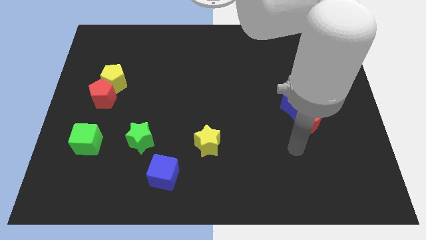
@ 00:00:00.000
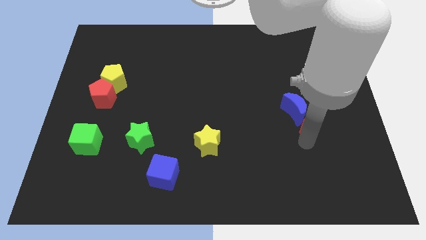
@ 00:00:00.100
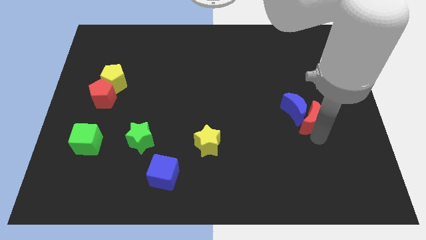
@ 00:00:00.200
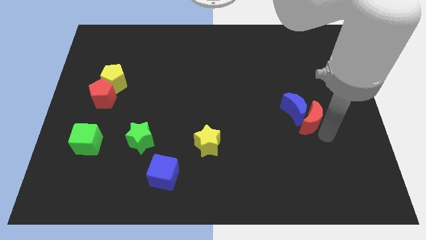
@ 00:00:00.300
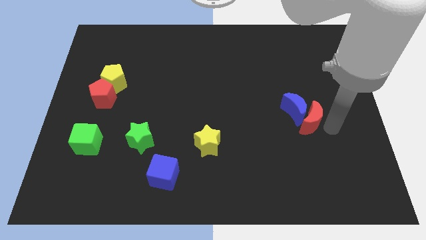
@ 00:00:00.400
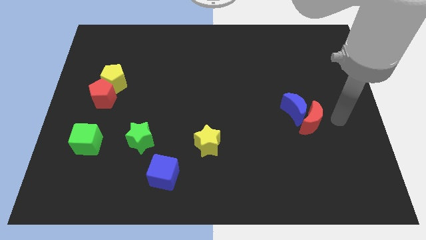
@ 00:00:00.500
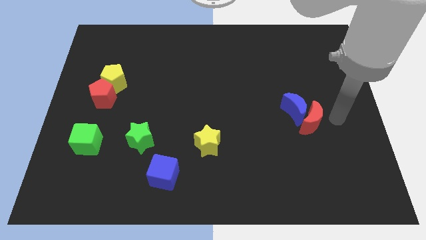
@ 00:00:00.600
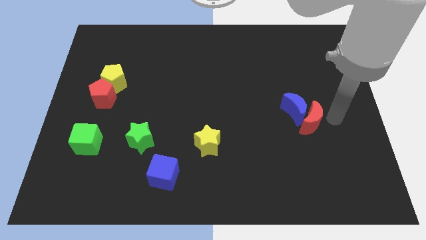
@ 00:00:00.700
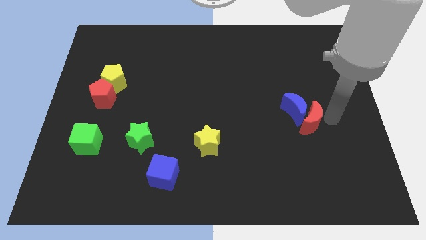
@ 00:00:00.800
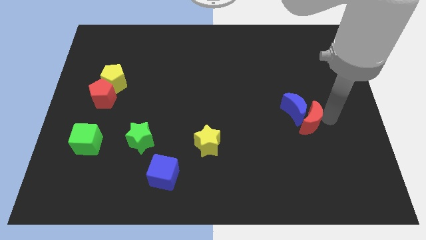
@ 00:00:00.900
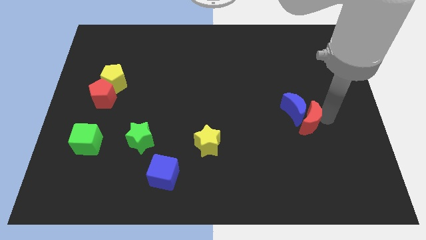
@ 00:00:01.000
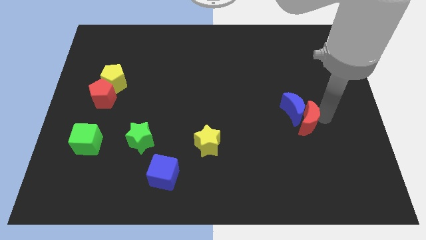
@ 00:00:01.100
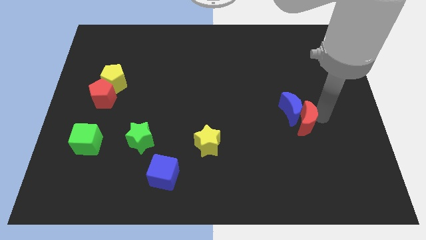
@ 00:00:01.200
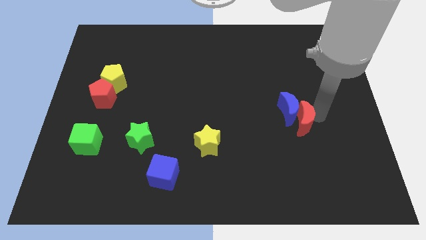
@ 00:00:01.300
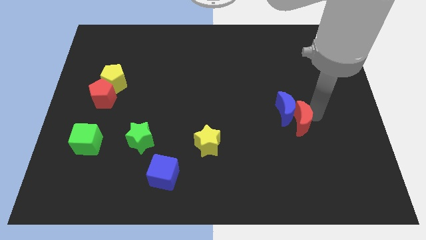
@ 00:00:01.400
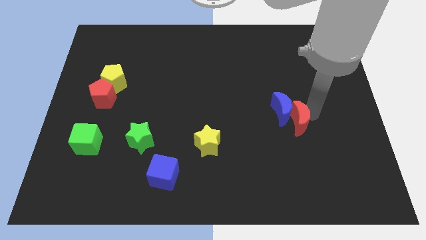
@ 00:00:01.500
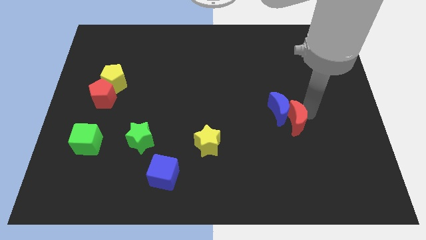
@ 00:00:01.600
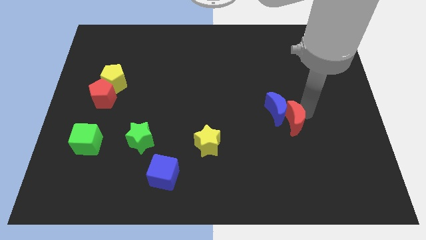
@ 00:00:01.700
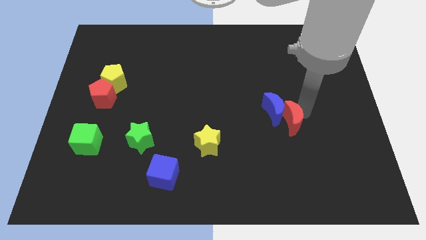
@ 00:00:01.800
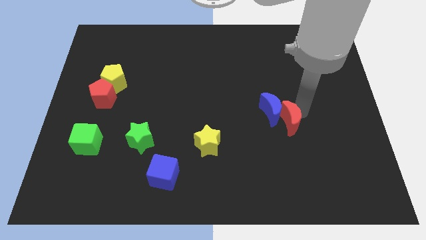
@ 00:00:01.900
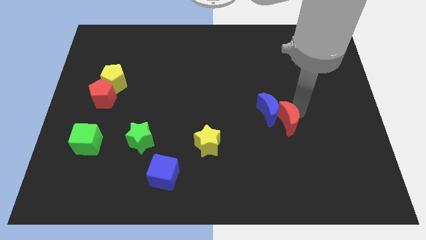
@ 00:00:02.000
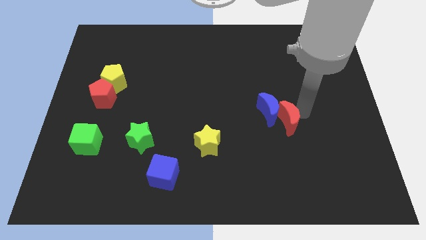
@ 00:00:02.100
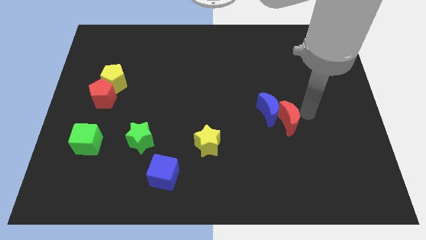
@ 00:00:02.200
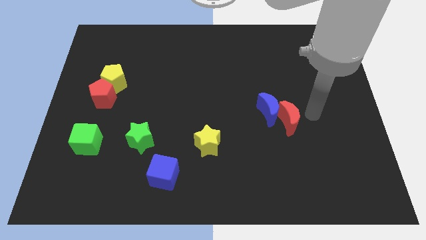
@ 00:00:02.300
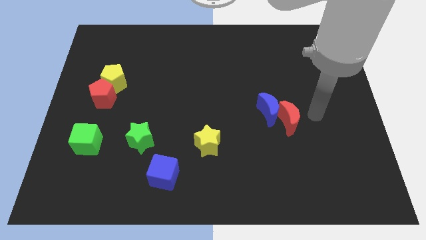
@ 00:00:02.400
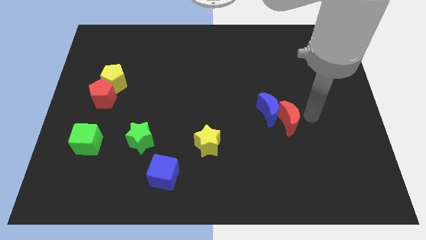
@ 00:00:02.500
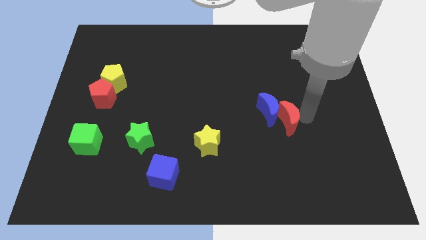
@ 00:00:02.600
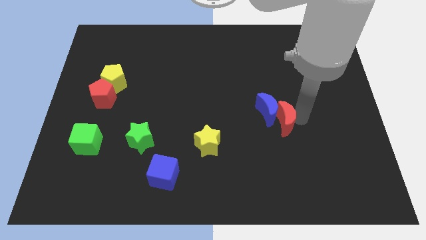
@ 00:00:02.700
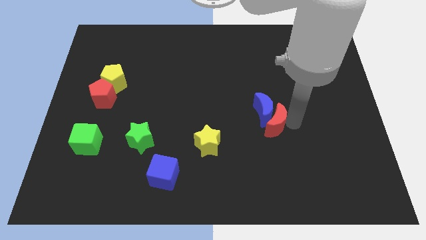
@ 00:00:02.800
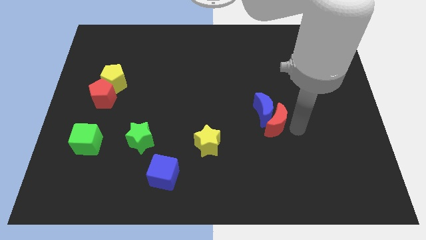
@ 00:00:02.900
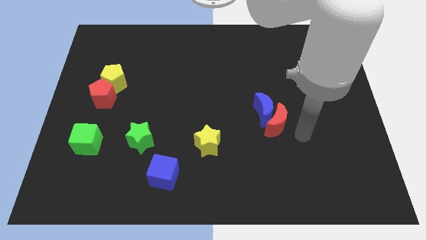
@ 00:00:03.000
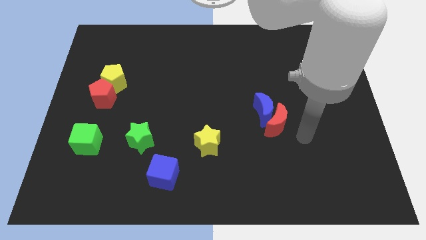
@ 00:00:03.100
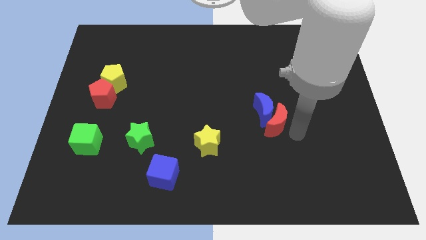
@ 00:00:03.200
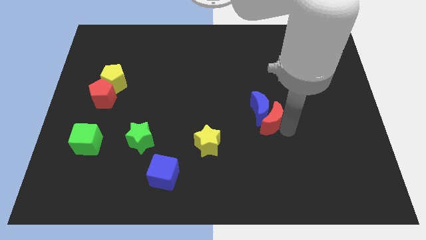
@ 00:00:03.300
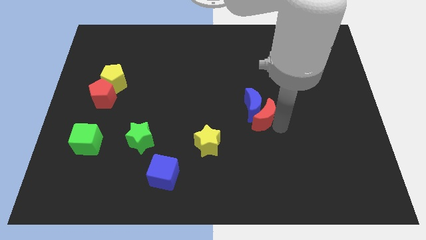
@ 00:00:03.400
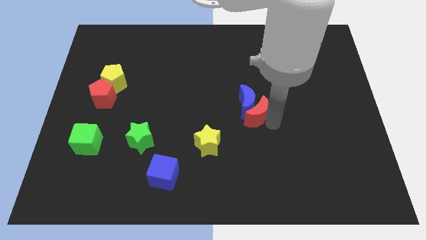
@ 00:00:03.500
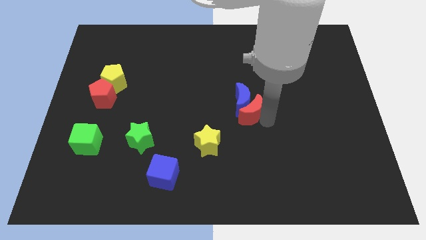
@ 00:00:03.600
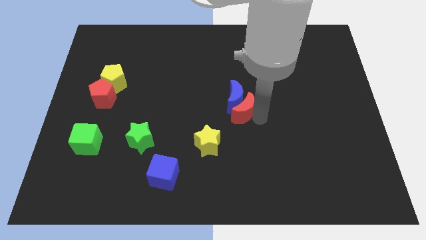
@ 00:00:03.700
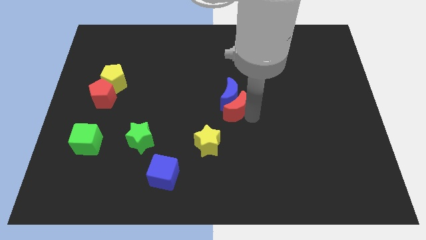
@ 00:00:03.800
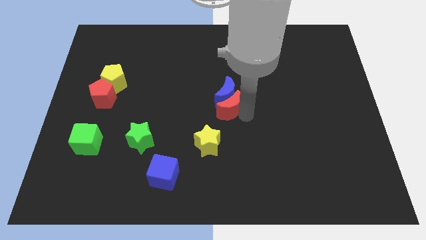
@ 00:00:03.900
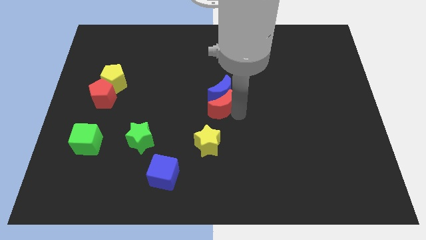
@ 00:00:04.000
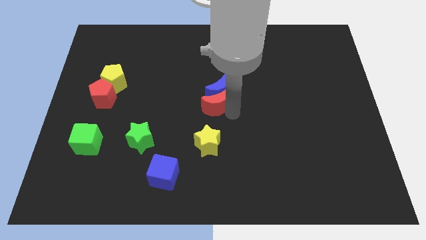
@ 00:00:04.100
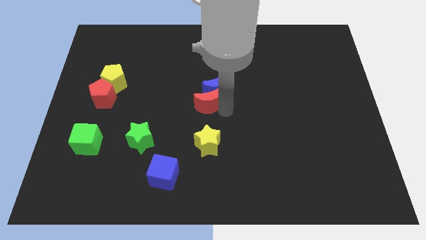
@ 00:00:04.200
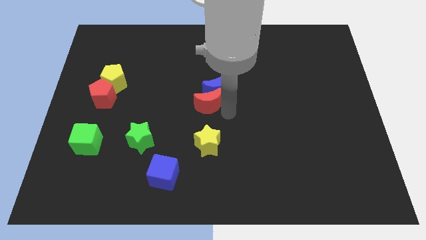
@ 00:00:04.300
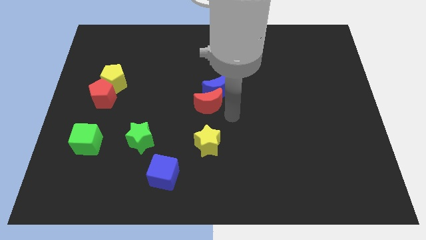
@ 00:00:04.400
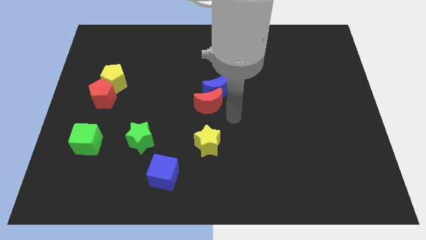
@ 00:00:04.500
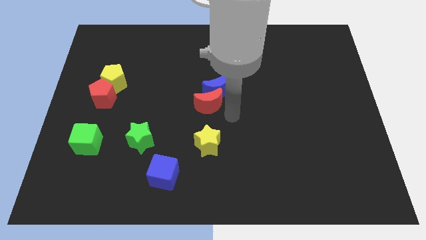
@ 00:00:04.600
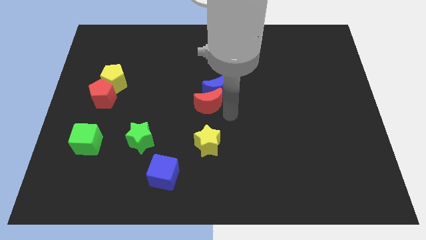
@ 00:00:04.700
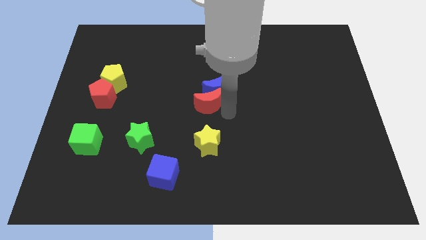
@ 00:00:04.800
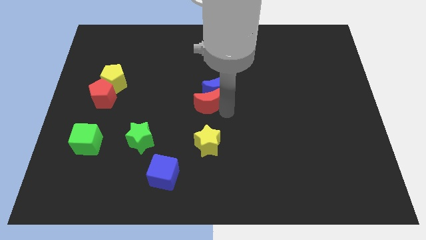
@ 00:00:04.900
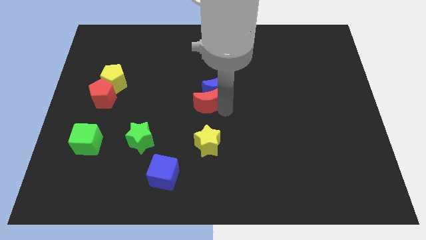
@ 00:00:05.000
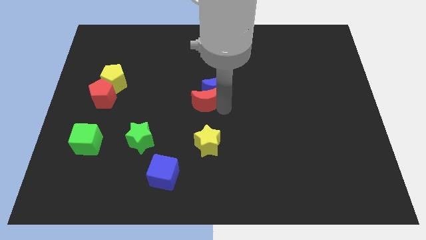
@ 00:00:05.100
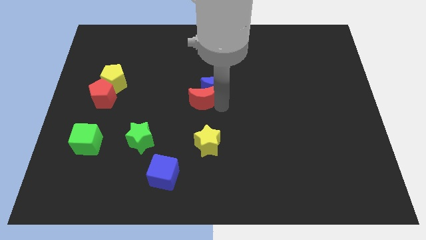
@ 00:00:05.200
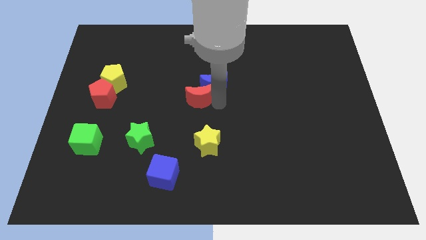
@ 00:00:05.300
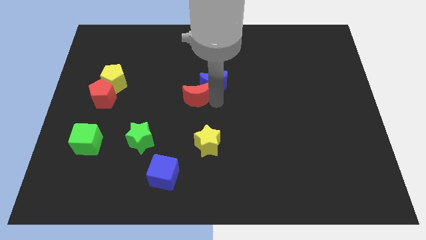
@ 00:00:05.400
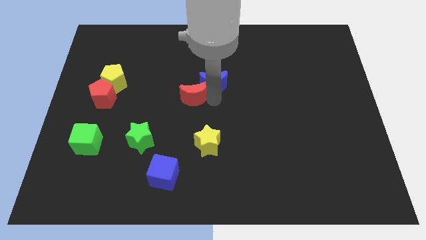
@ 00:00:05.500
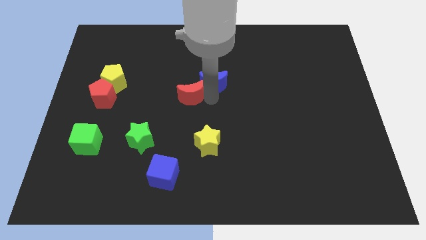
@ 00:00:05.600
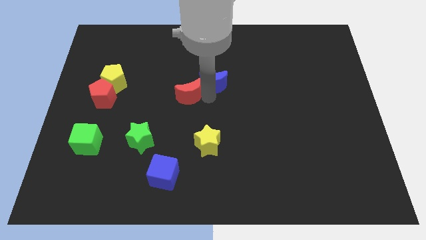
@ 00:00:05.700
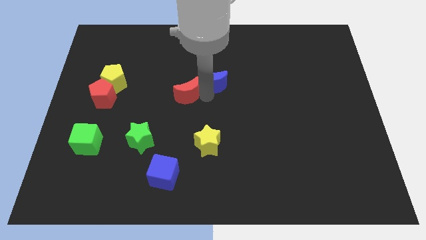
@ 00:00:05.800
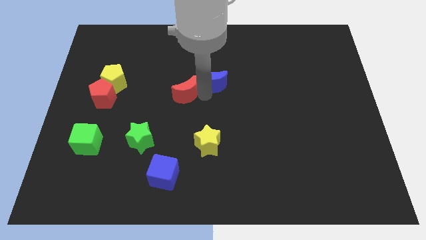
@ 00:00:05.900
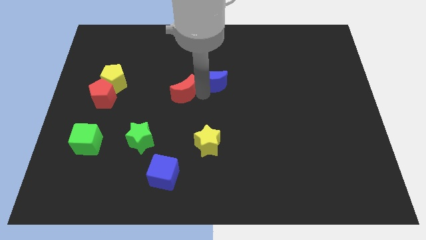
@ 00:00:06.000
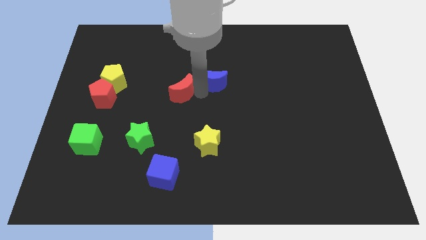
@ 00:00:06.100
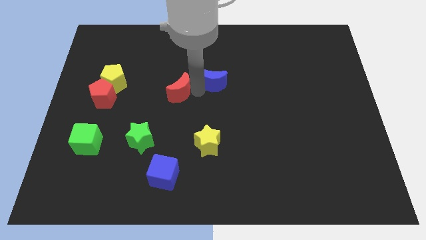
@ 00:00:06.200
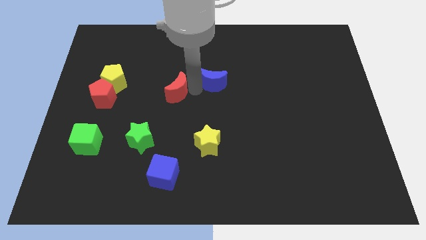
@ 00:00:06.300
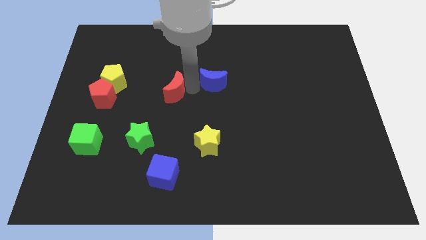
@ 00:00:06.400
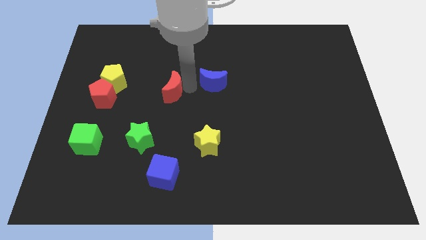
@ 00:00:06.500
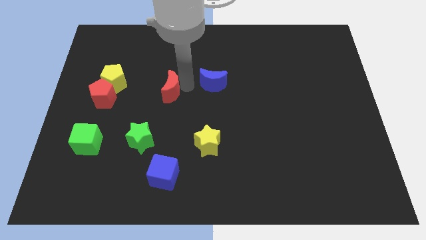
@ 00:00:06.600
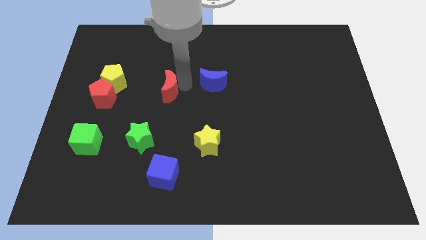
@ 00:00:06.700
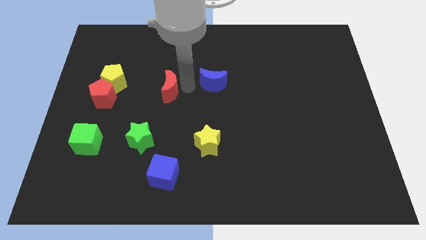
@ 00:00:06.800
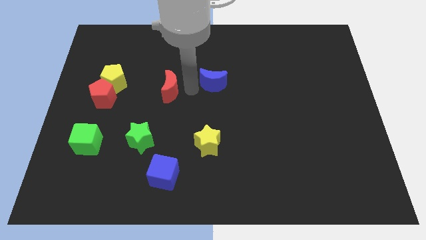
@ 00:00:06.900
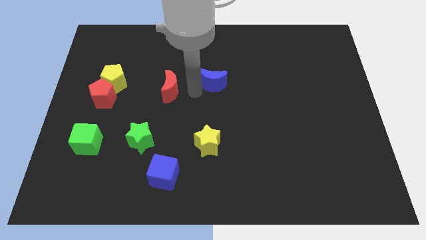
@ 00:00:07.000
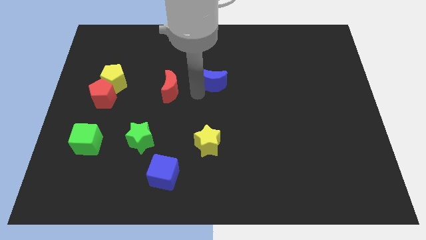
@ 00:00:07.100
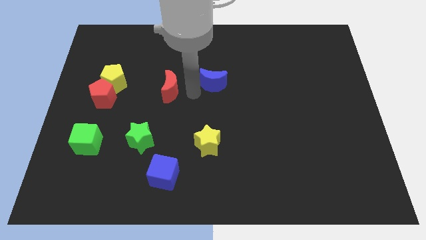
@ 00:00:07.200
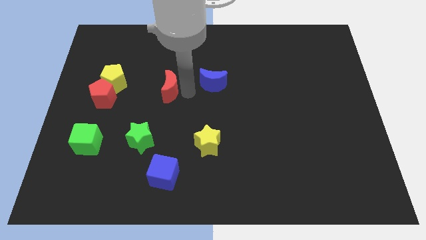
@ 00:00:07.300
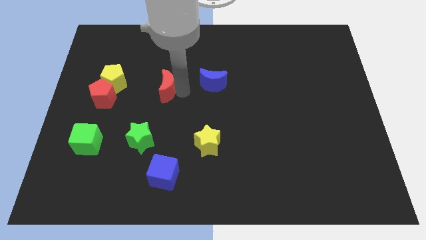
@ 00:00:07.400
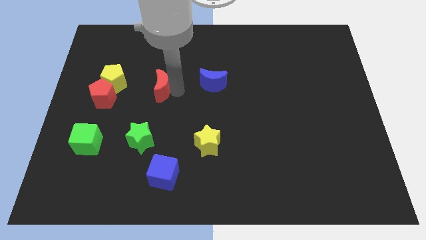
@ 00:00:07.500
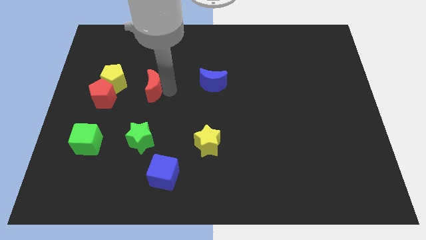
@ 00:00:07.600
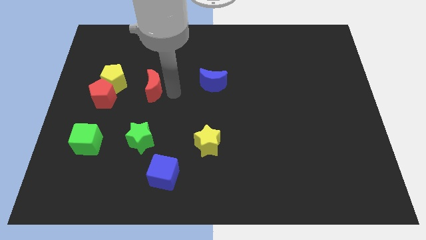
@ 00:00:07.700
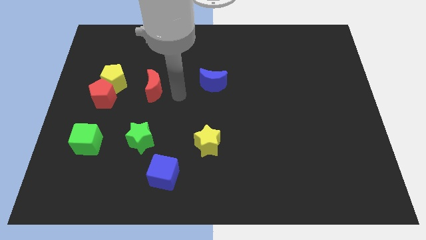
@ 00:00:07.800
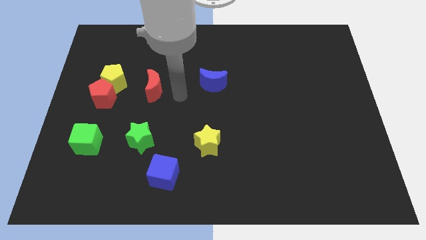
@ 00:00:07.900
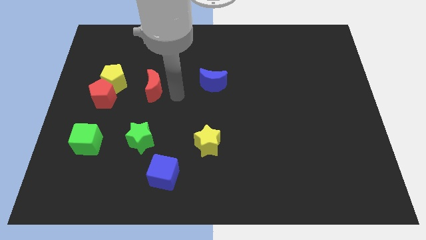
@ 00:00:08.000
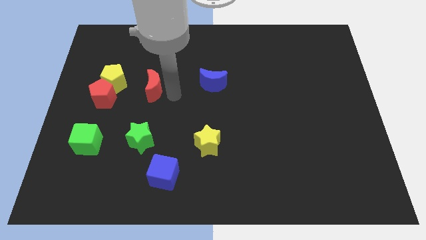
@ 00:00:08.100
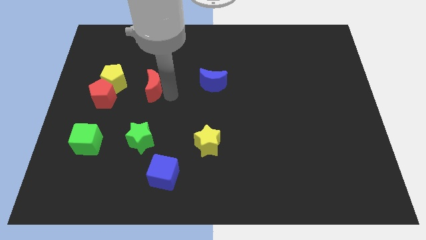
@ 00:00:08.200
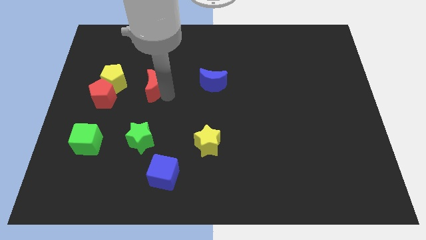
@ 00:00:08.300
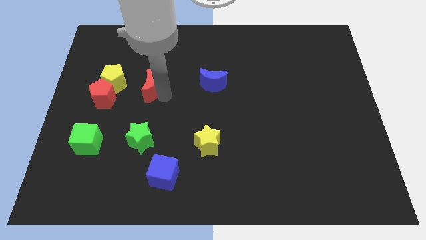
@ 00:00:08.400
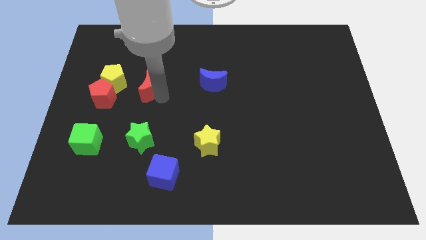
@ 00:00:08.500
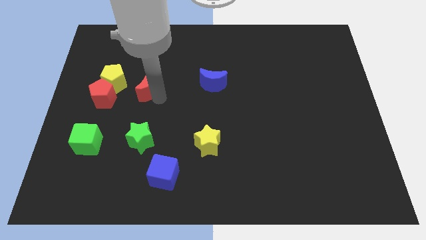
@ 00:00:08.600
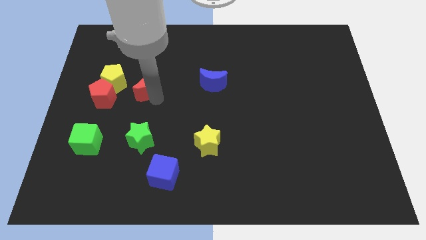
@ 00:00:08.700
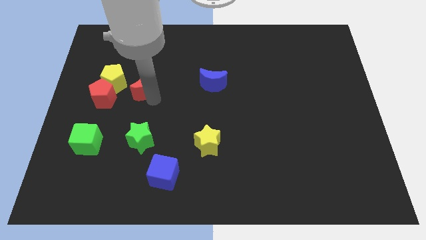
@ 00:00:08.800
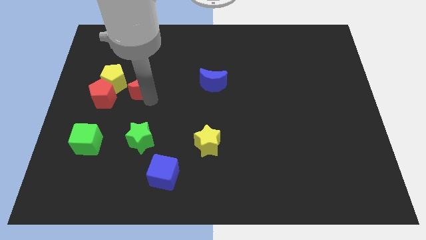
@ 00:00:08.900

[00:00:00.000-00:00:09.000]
push the red moon diagonally up and to the right of the red pentagon
